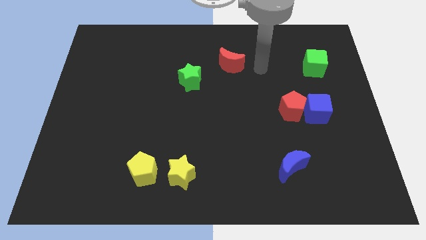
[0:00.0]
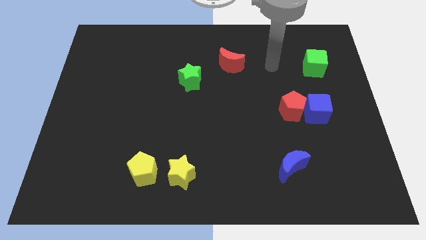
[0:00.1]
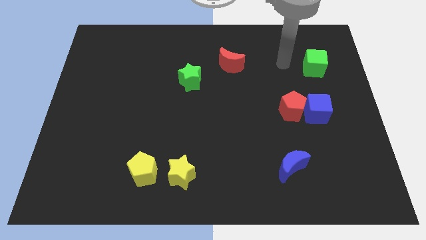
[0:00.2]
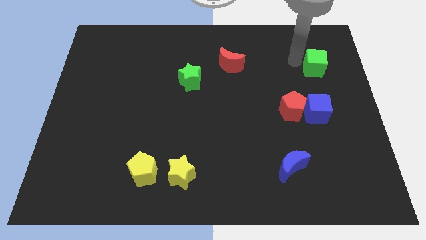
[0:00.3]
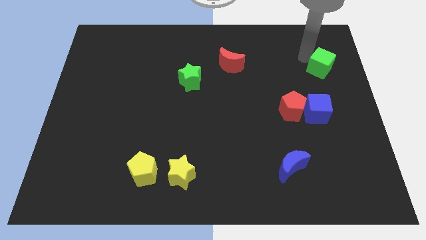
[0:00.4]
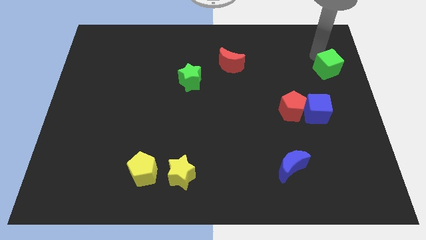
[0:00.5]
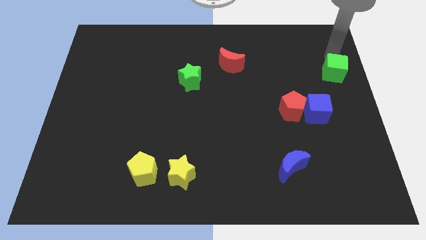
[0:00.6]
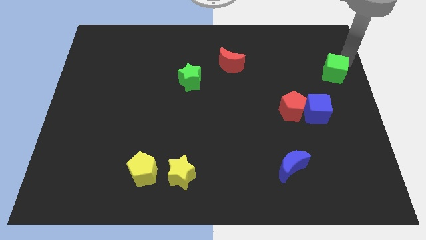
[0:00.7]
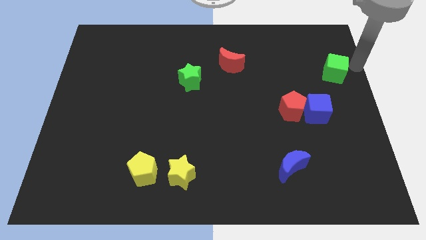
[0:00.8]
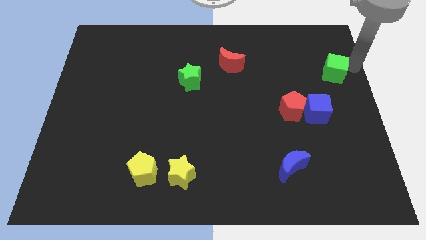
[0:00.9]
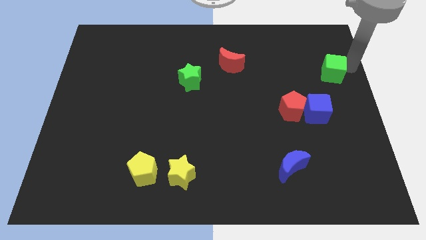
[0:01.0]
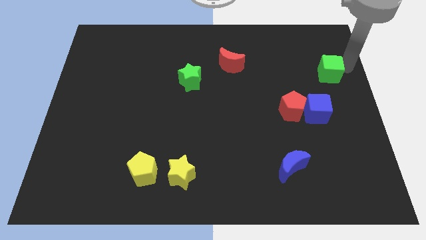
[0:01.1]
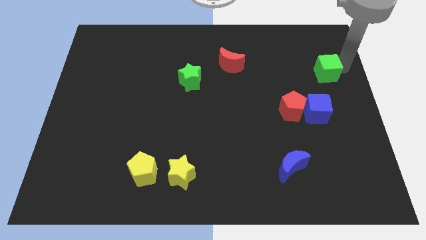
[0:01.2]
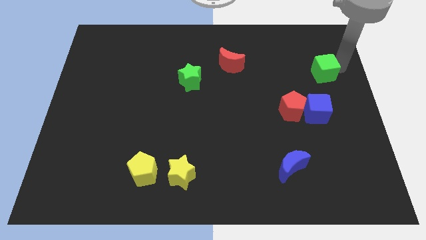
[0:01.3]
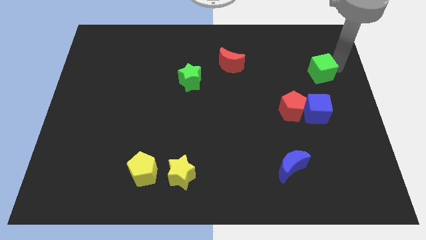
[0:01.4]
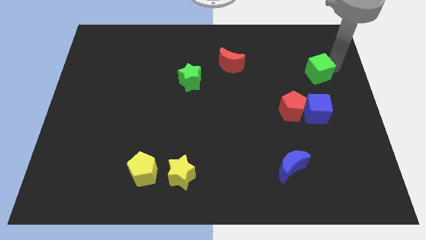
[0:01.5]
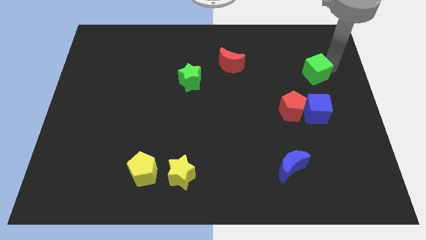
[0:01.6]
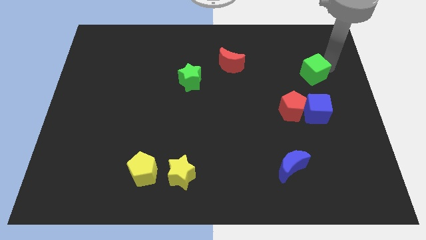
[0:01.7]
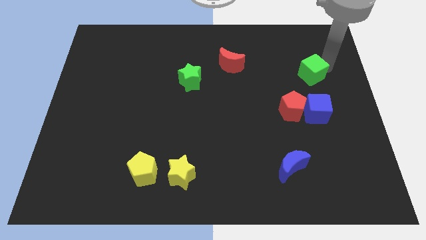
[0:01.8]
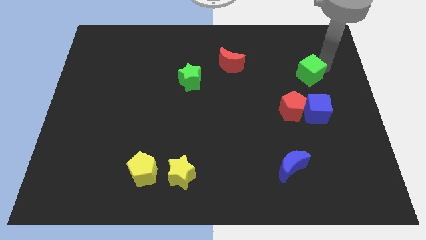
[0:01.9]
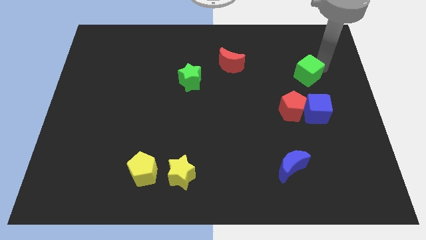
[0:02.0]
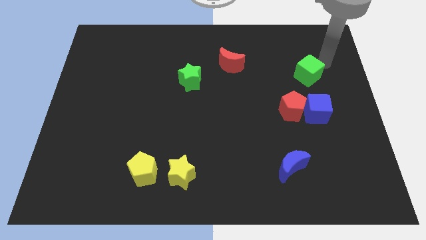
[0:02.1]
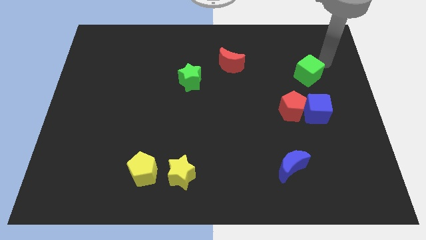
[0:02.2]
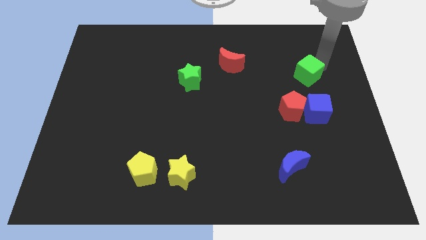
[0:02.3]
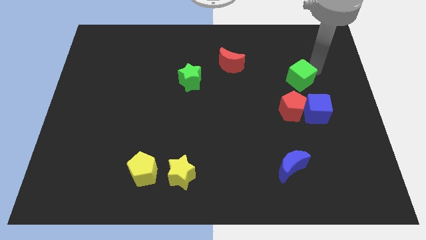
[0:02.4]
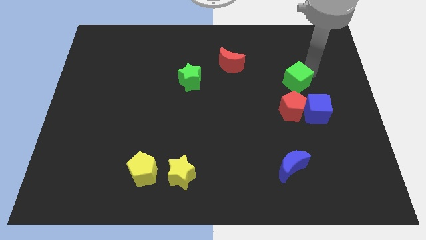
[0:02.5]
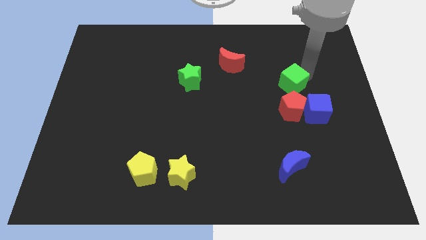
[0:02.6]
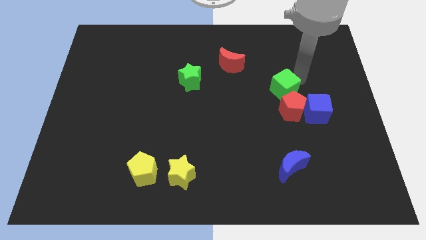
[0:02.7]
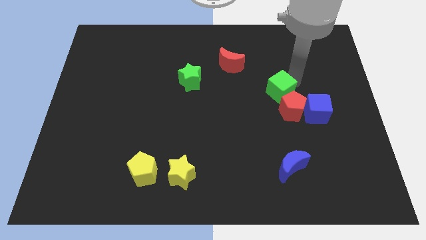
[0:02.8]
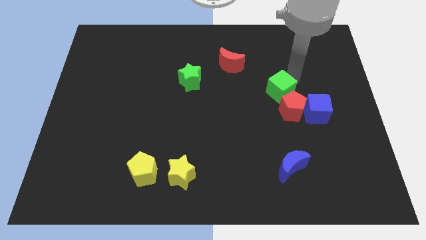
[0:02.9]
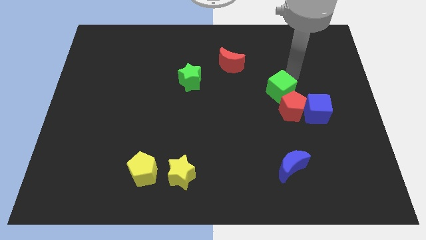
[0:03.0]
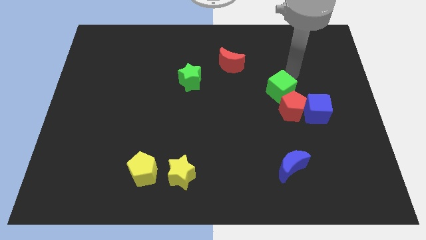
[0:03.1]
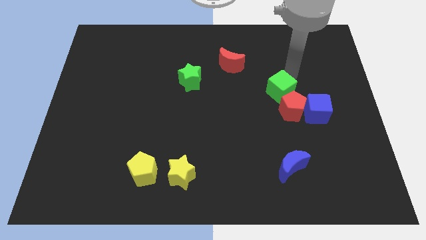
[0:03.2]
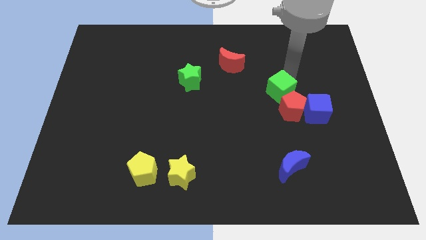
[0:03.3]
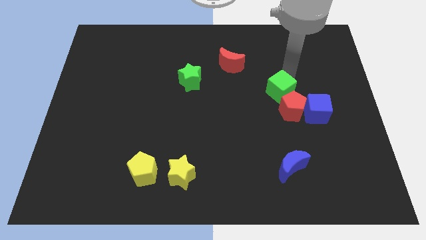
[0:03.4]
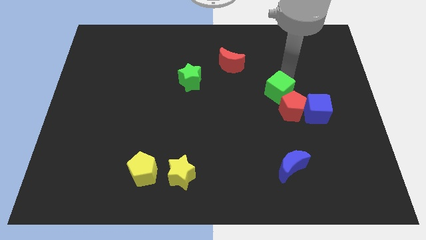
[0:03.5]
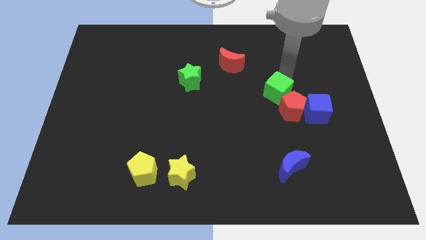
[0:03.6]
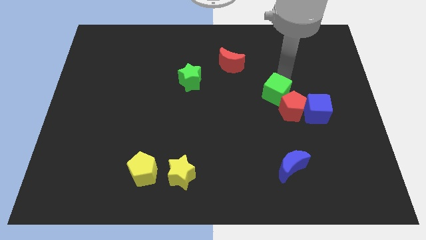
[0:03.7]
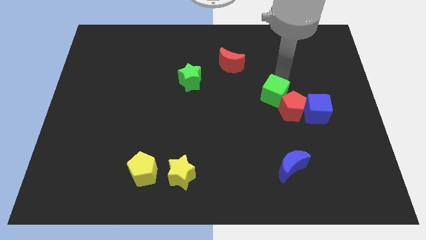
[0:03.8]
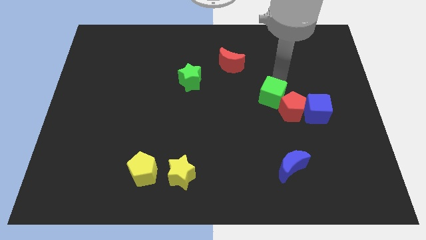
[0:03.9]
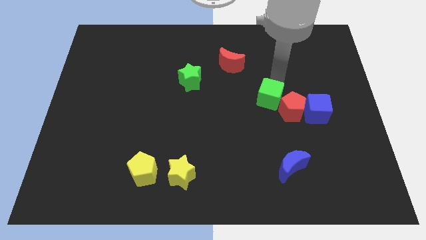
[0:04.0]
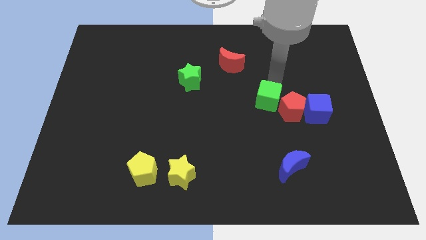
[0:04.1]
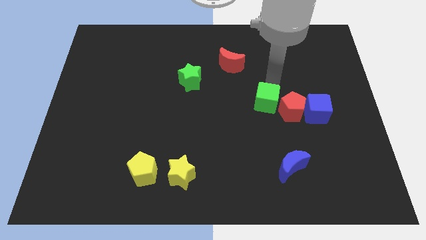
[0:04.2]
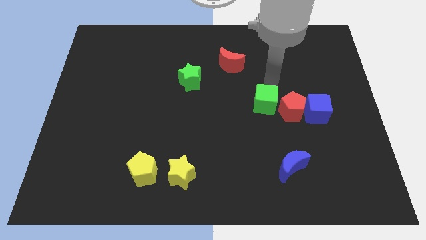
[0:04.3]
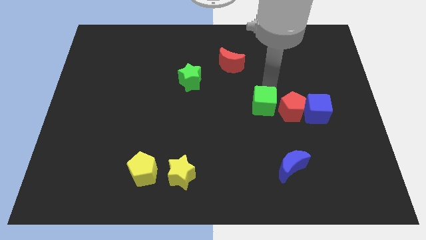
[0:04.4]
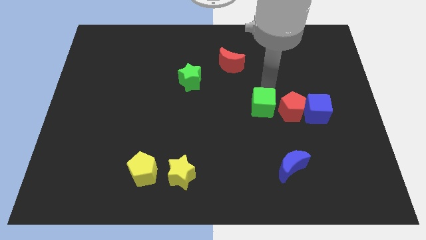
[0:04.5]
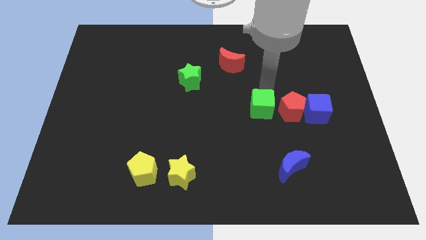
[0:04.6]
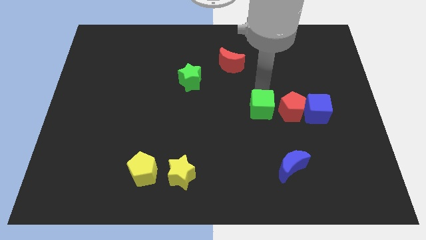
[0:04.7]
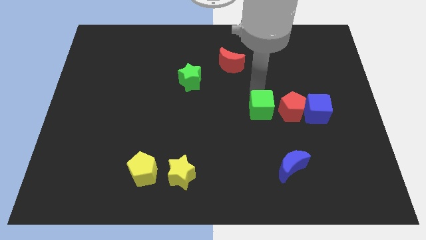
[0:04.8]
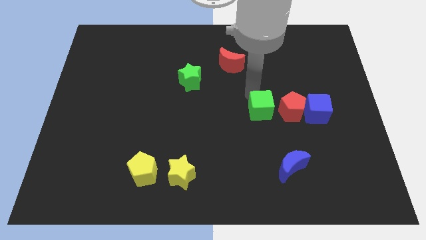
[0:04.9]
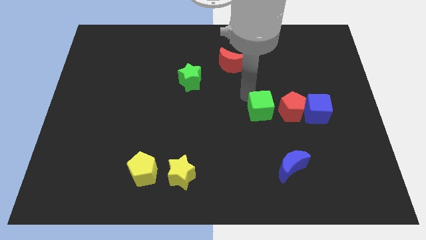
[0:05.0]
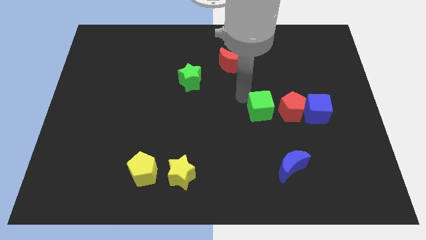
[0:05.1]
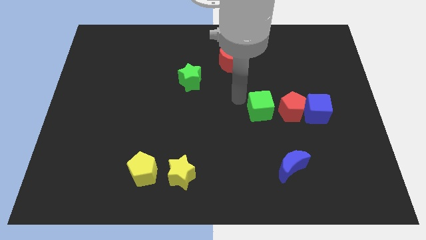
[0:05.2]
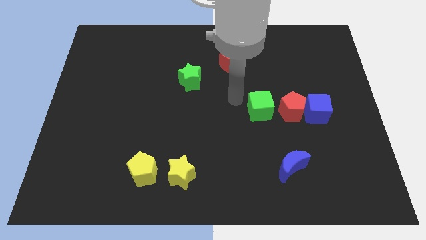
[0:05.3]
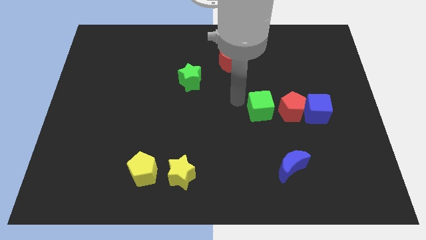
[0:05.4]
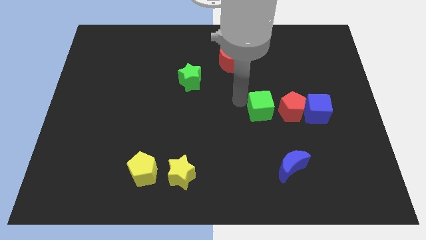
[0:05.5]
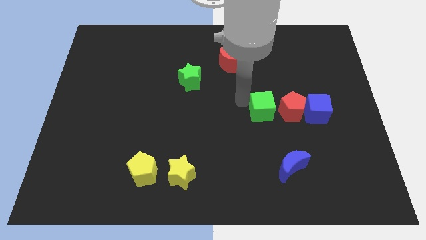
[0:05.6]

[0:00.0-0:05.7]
move the green cube diagonally down and to the left of the red pentagon

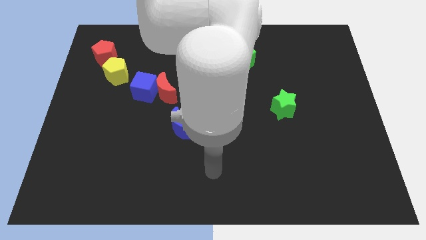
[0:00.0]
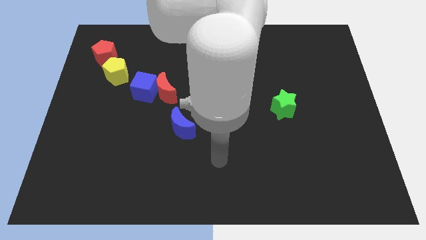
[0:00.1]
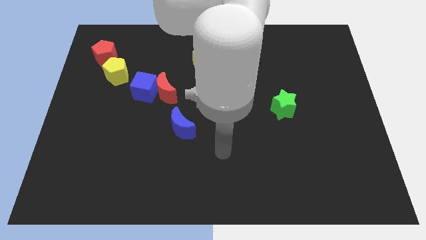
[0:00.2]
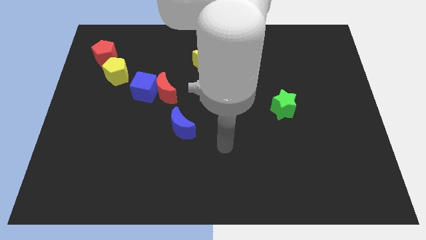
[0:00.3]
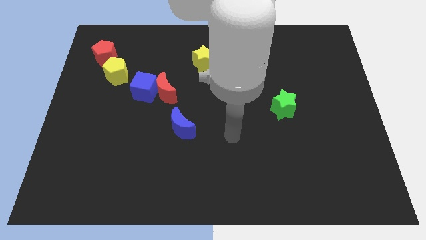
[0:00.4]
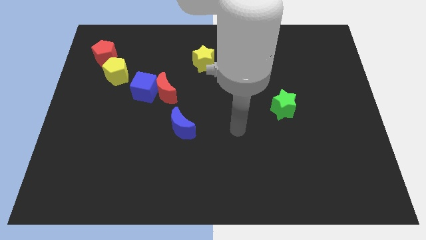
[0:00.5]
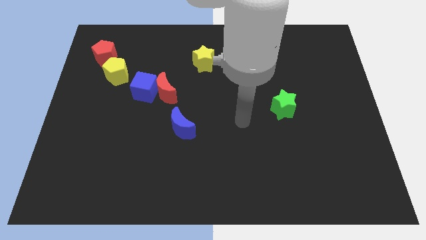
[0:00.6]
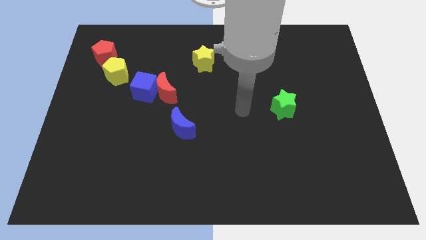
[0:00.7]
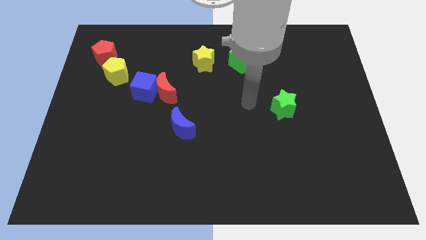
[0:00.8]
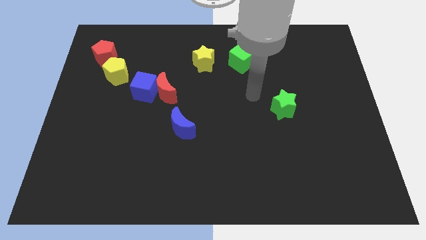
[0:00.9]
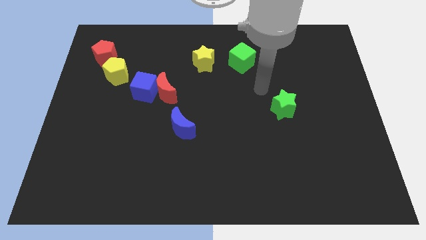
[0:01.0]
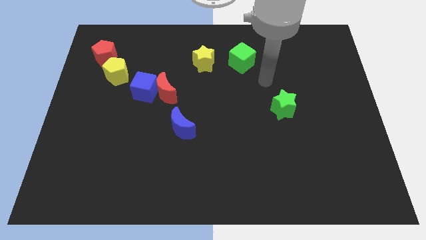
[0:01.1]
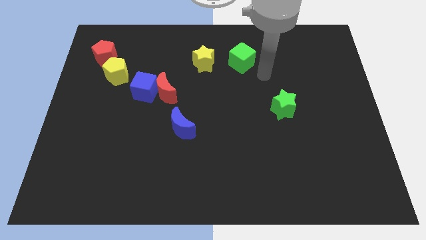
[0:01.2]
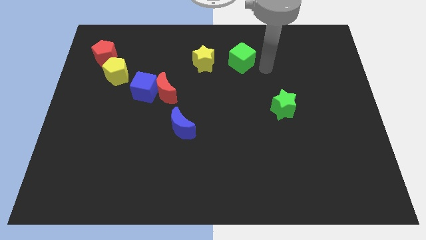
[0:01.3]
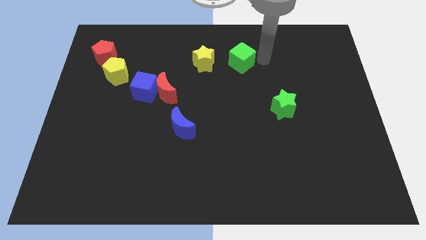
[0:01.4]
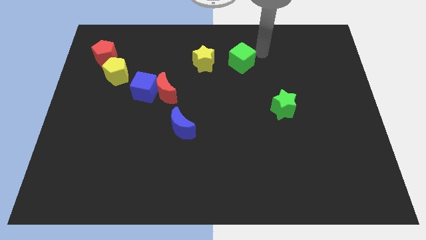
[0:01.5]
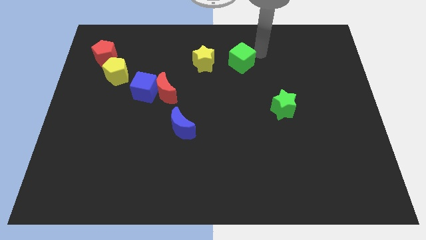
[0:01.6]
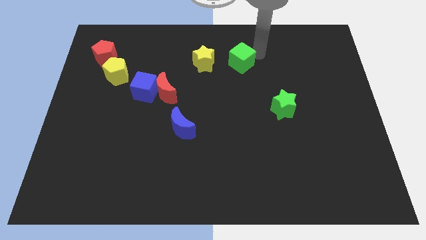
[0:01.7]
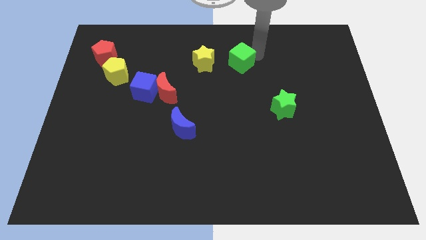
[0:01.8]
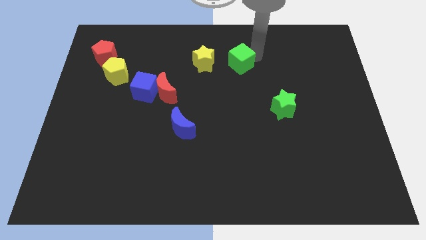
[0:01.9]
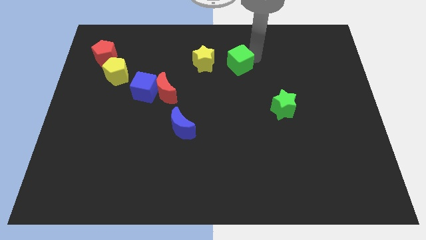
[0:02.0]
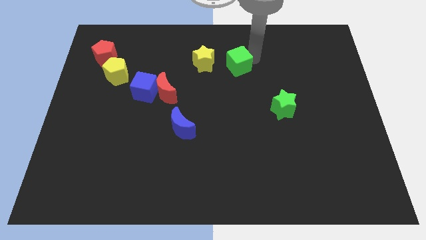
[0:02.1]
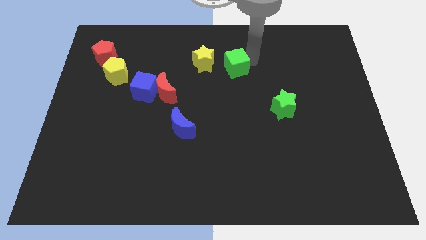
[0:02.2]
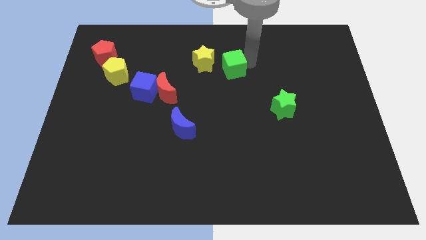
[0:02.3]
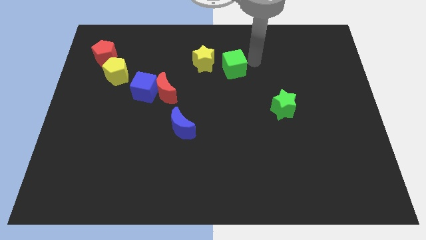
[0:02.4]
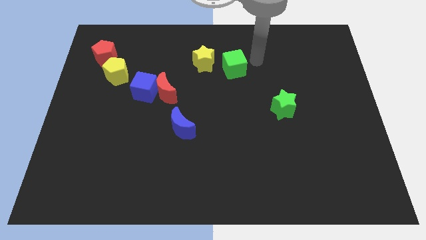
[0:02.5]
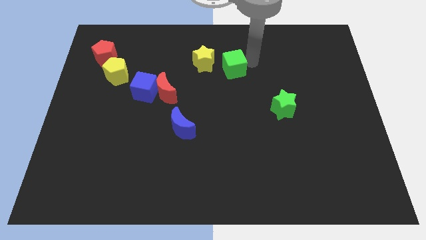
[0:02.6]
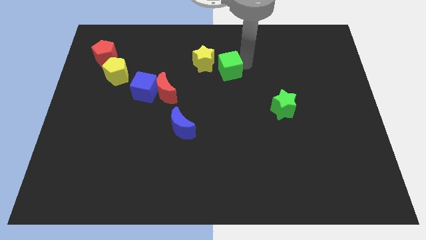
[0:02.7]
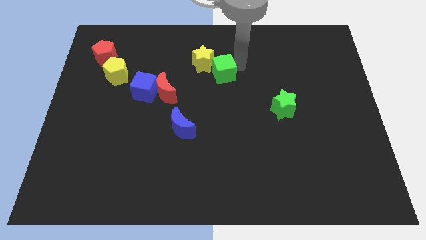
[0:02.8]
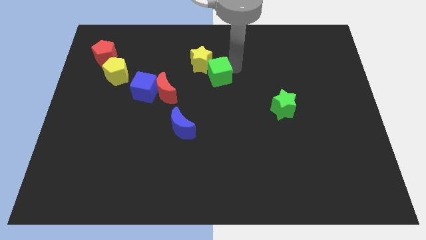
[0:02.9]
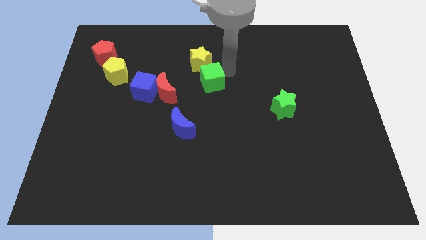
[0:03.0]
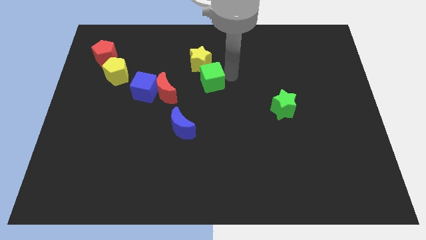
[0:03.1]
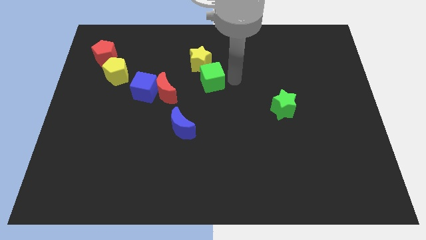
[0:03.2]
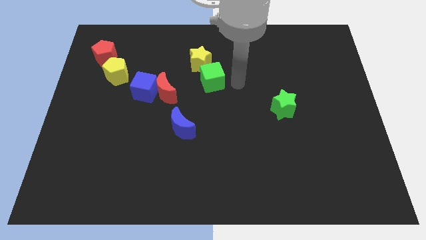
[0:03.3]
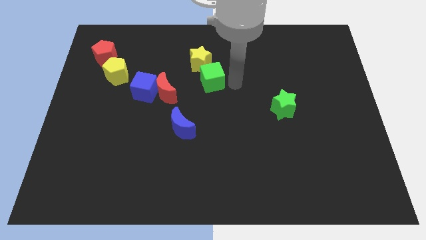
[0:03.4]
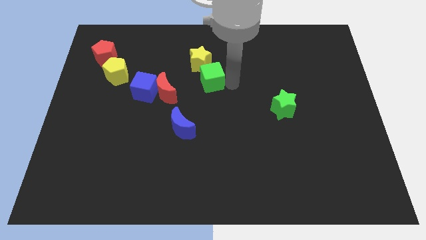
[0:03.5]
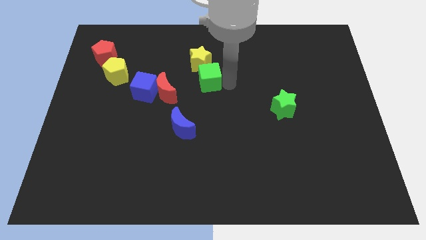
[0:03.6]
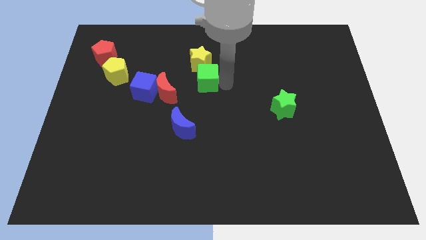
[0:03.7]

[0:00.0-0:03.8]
slide the green cube to the top right side of the red moon
